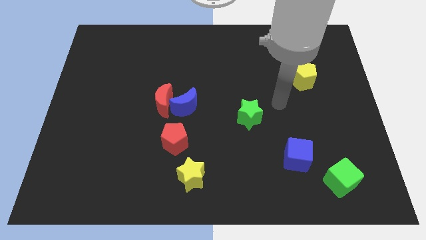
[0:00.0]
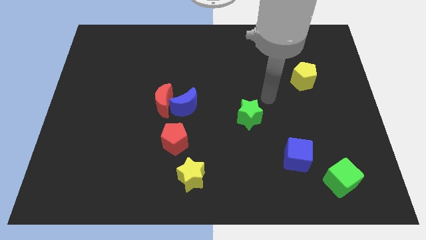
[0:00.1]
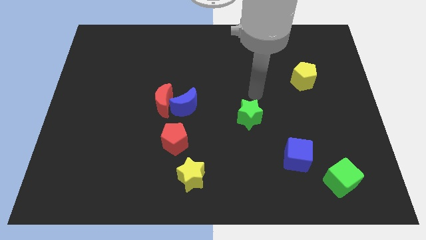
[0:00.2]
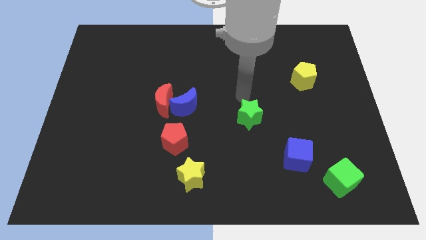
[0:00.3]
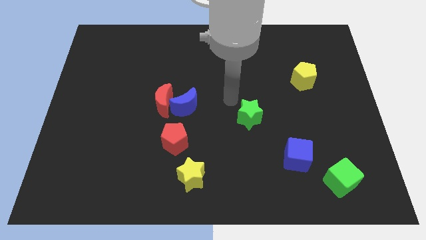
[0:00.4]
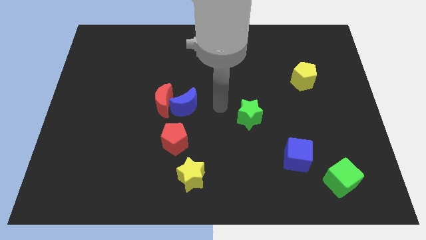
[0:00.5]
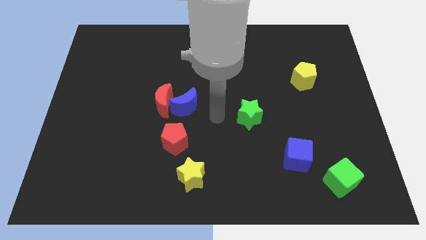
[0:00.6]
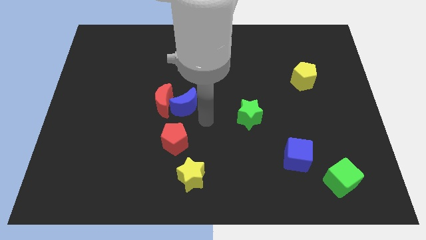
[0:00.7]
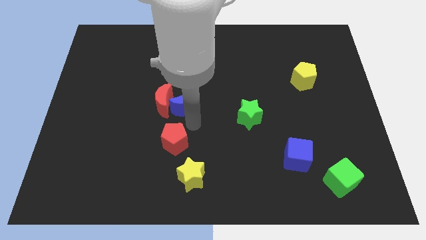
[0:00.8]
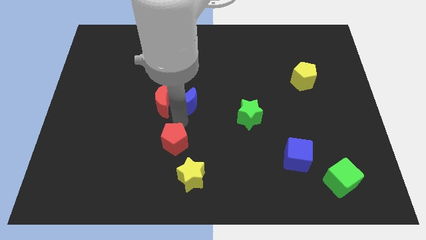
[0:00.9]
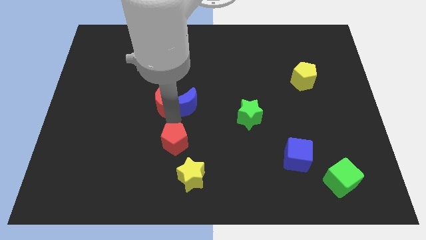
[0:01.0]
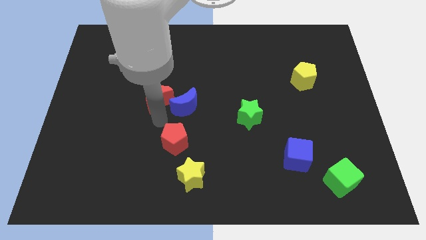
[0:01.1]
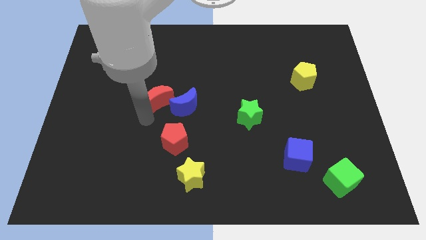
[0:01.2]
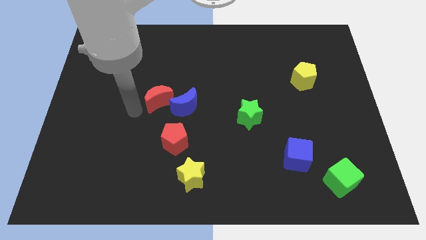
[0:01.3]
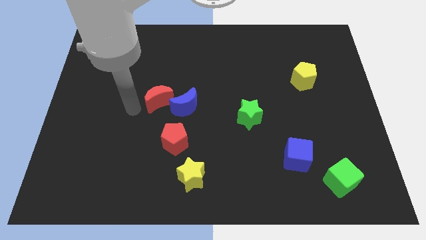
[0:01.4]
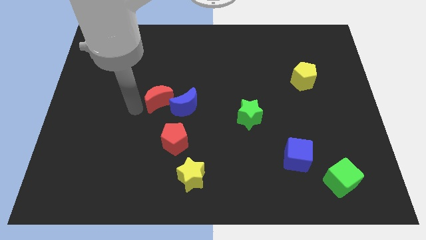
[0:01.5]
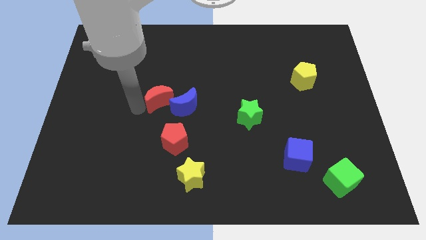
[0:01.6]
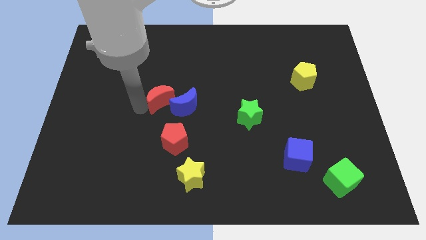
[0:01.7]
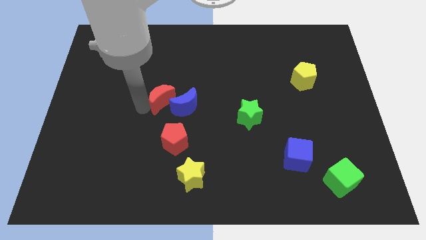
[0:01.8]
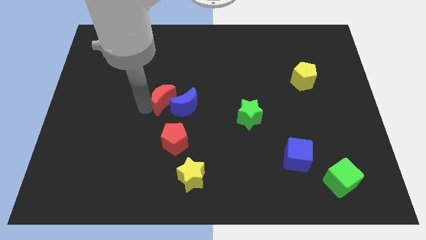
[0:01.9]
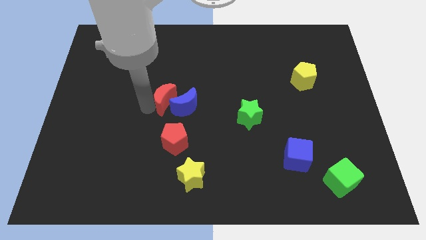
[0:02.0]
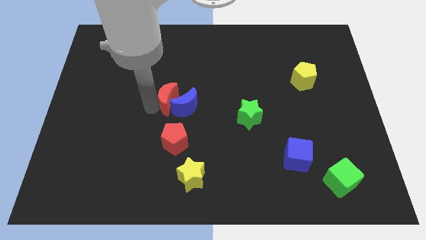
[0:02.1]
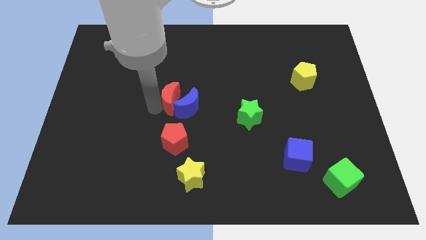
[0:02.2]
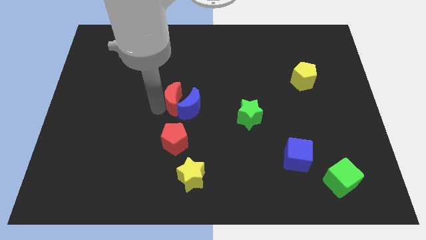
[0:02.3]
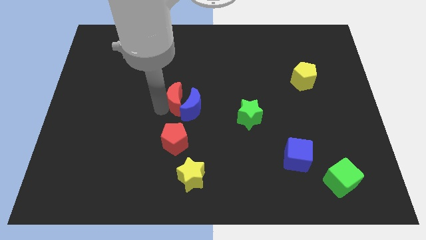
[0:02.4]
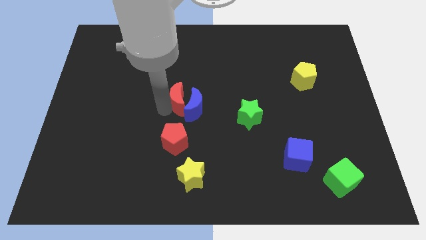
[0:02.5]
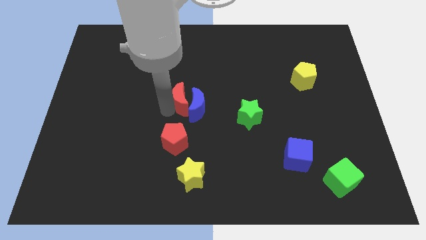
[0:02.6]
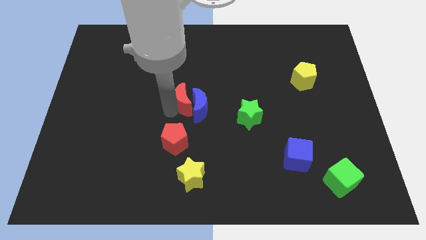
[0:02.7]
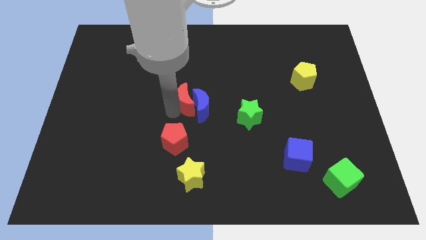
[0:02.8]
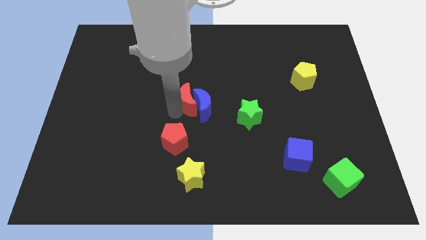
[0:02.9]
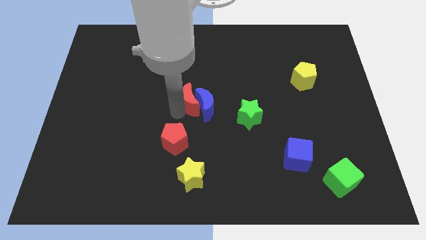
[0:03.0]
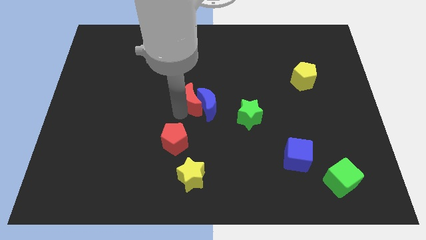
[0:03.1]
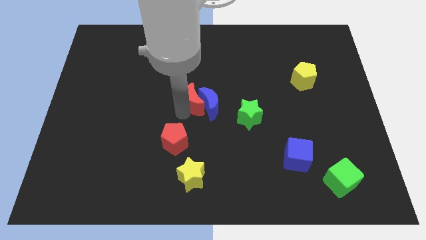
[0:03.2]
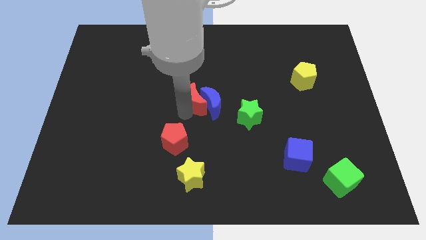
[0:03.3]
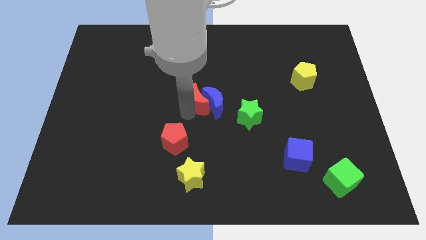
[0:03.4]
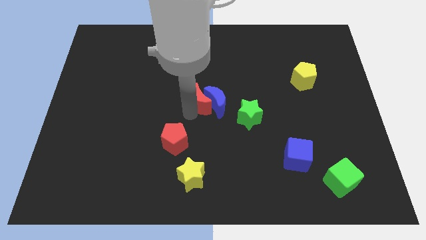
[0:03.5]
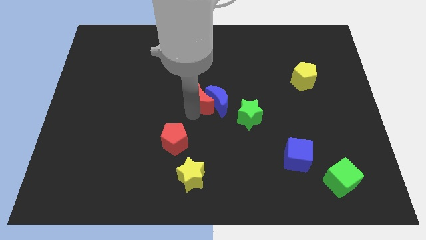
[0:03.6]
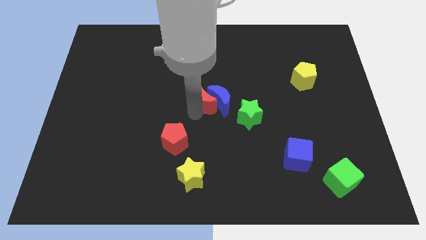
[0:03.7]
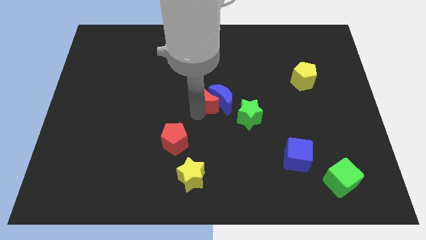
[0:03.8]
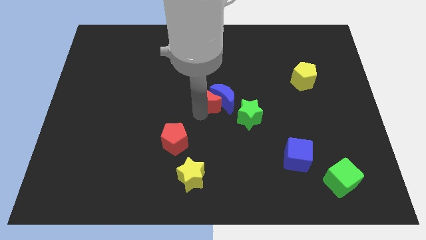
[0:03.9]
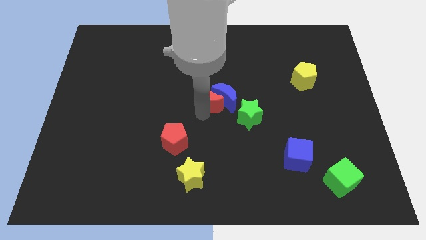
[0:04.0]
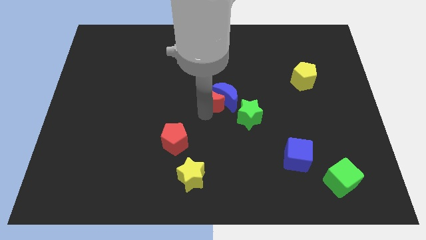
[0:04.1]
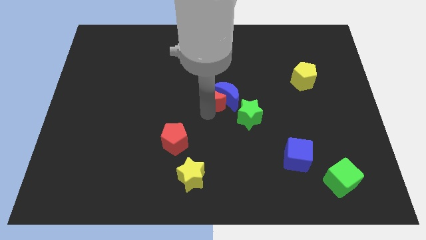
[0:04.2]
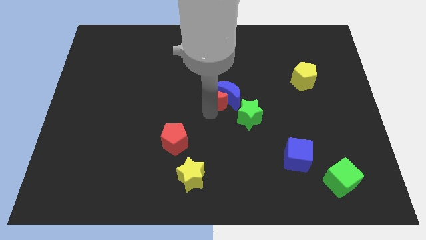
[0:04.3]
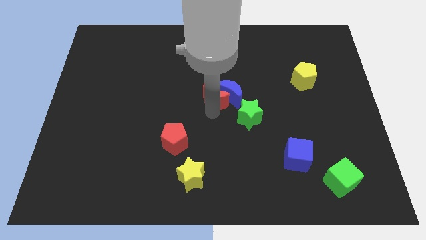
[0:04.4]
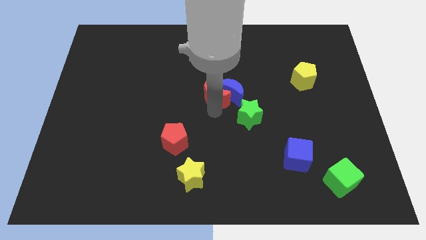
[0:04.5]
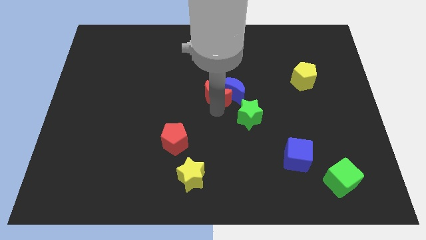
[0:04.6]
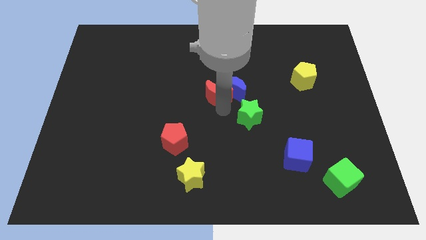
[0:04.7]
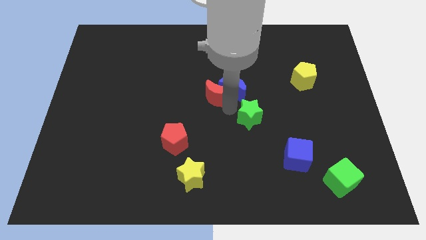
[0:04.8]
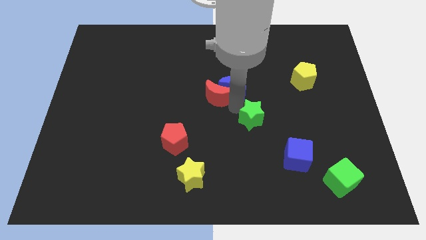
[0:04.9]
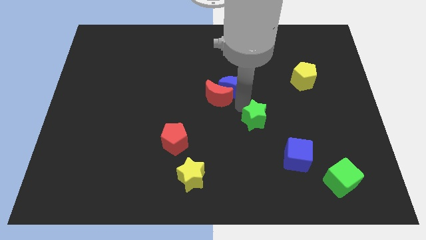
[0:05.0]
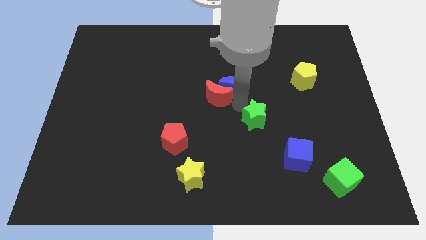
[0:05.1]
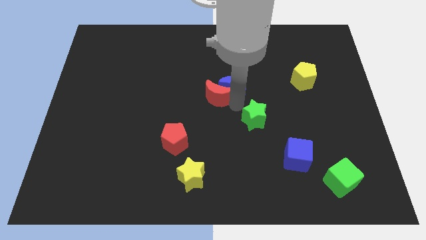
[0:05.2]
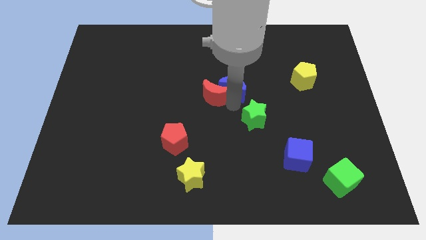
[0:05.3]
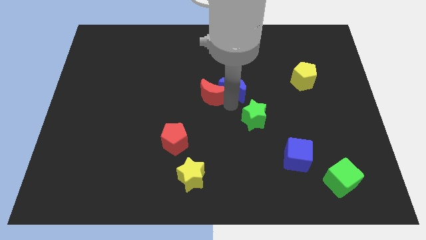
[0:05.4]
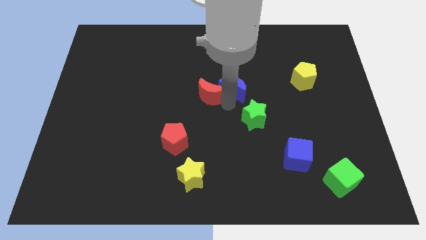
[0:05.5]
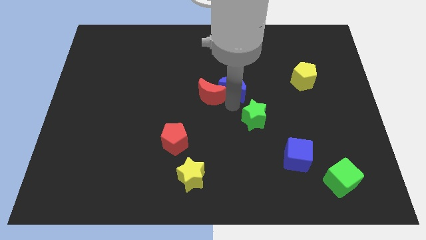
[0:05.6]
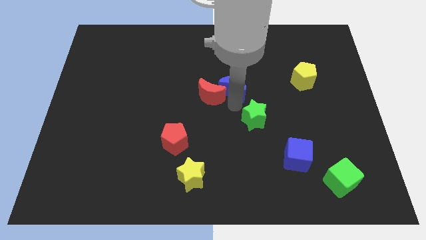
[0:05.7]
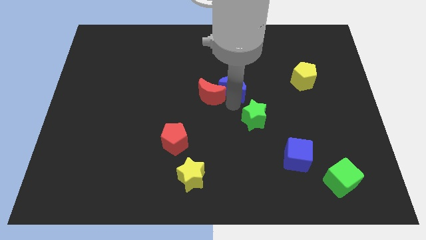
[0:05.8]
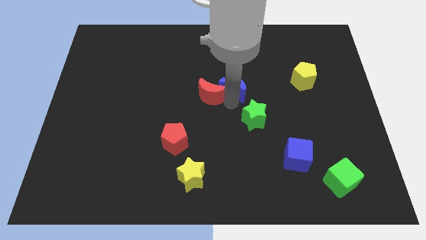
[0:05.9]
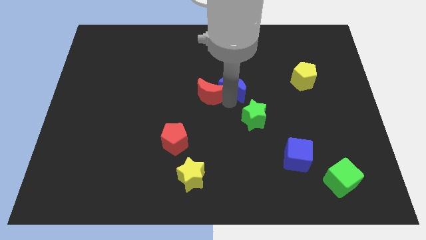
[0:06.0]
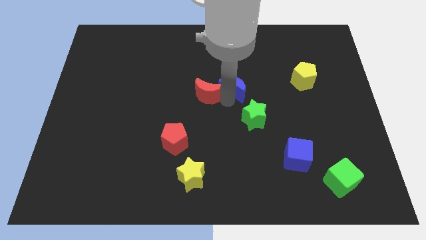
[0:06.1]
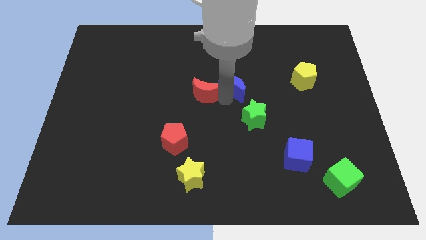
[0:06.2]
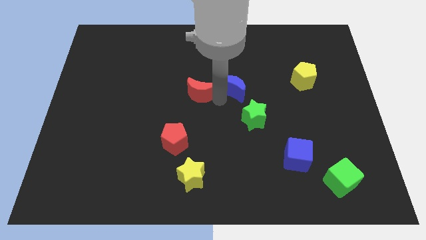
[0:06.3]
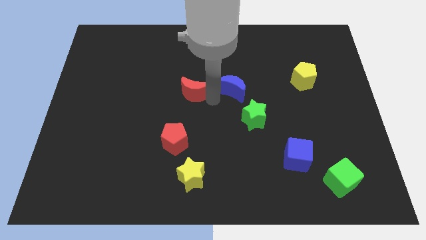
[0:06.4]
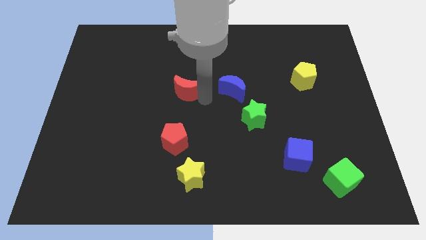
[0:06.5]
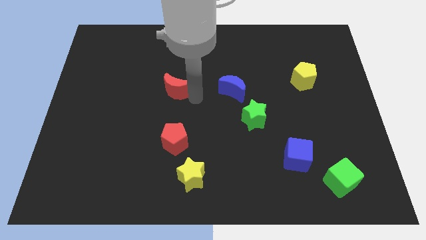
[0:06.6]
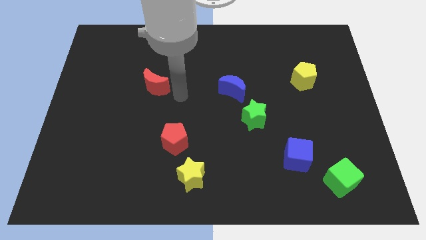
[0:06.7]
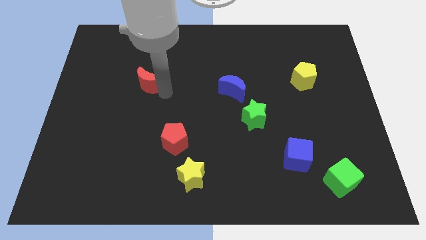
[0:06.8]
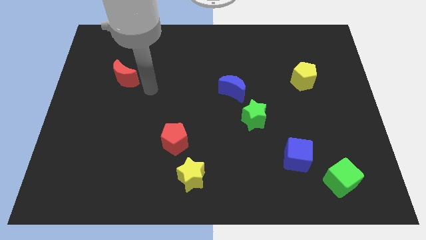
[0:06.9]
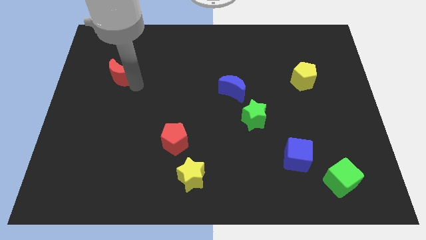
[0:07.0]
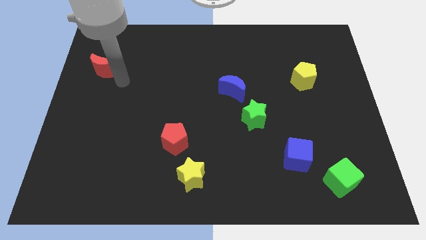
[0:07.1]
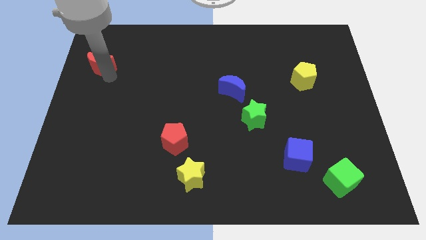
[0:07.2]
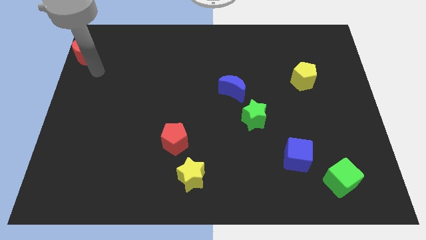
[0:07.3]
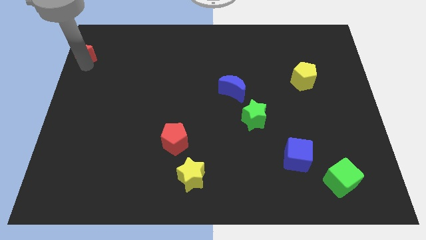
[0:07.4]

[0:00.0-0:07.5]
push the red moon to the top left of the board
